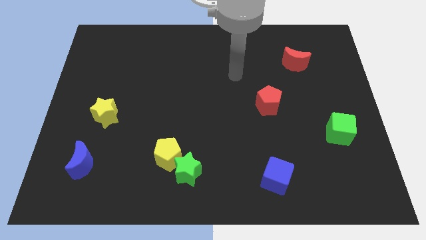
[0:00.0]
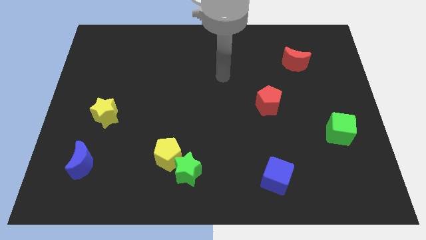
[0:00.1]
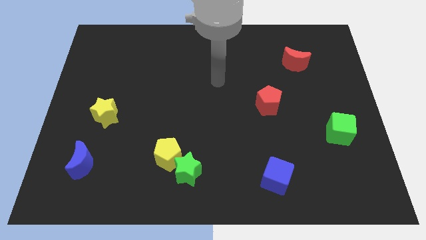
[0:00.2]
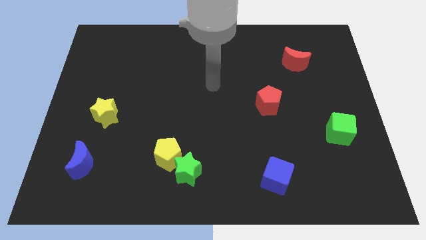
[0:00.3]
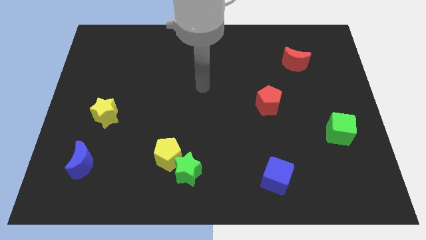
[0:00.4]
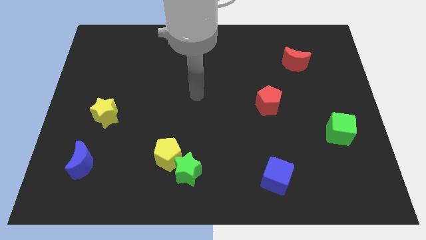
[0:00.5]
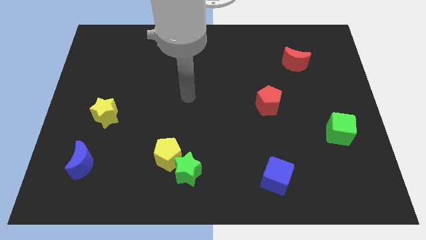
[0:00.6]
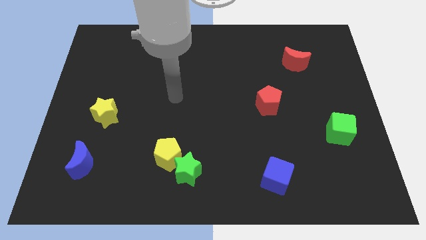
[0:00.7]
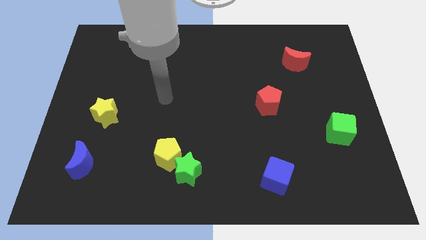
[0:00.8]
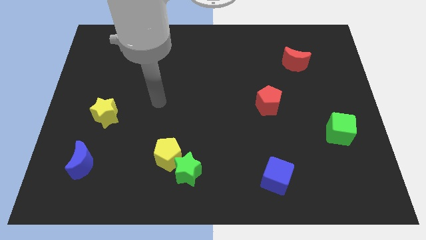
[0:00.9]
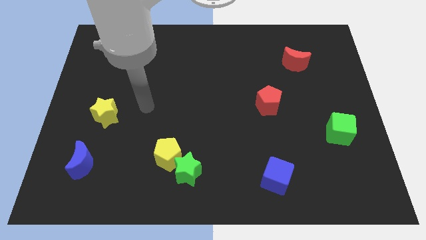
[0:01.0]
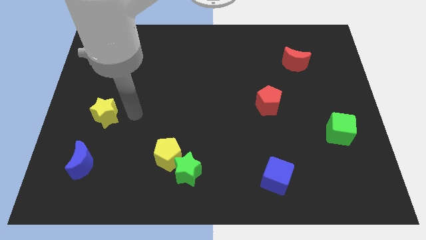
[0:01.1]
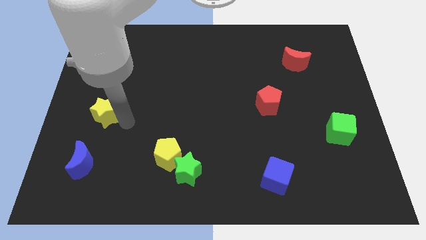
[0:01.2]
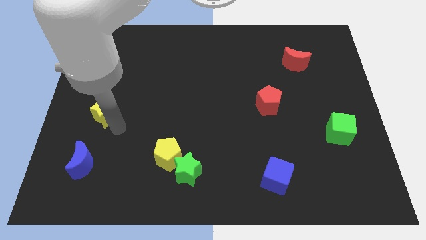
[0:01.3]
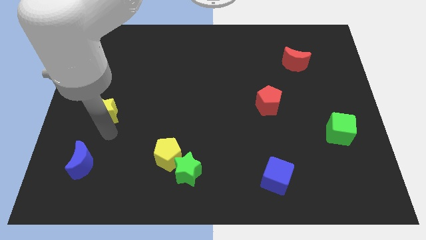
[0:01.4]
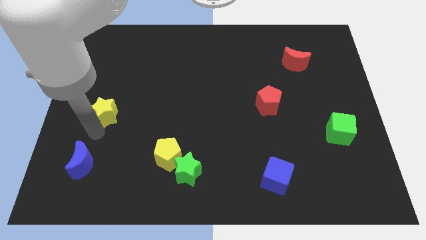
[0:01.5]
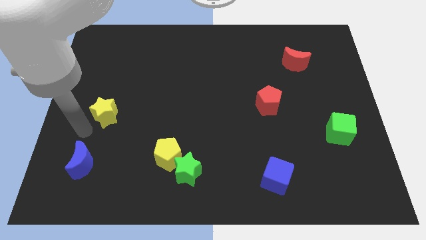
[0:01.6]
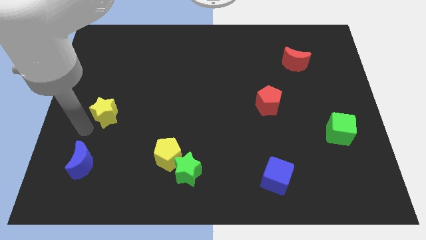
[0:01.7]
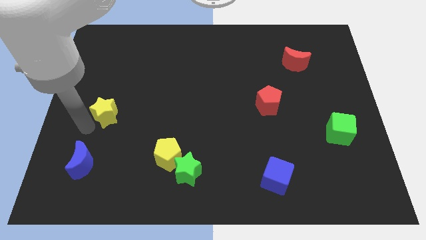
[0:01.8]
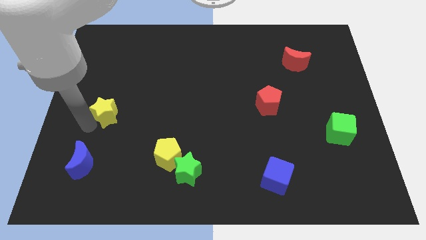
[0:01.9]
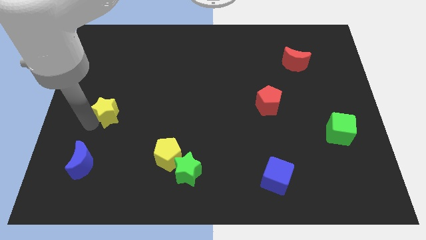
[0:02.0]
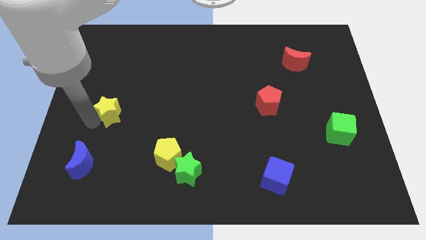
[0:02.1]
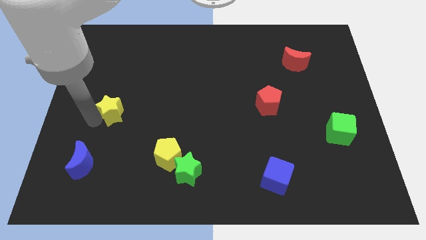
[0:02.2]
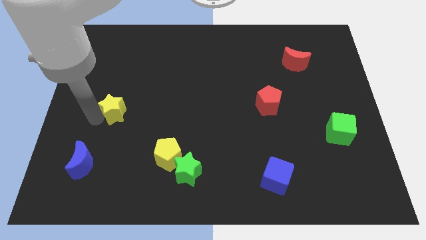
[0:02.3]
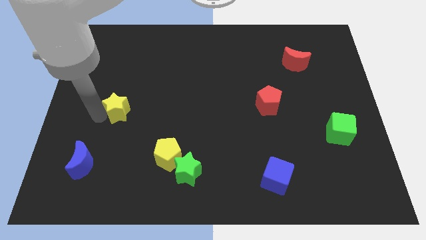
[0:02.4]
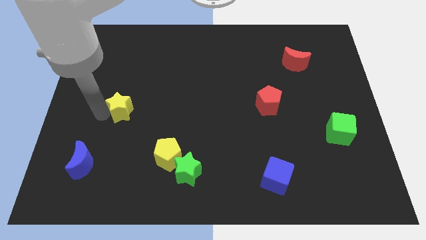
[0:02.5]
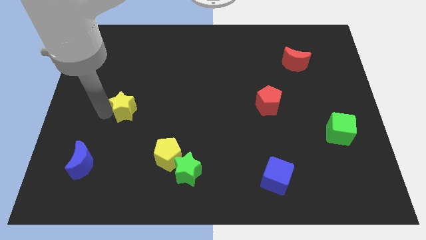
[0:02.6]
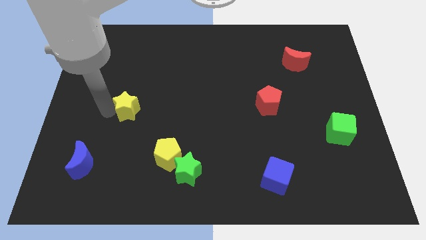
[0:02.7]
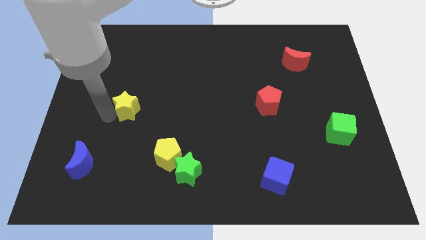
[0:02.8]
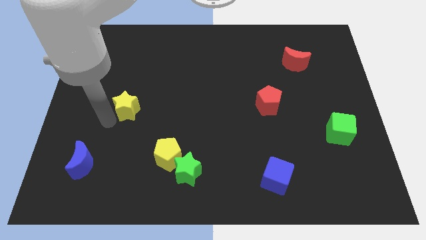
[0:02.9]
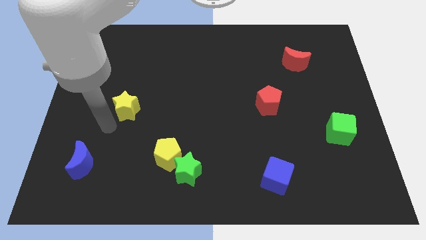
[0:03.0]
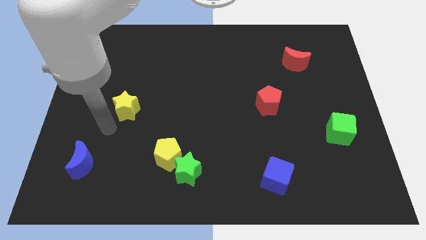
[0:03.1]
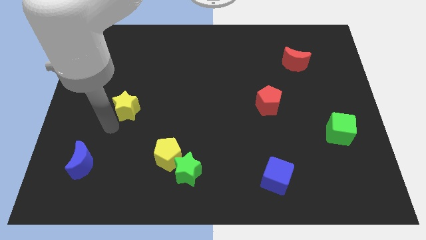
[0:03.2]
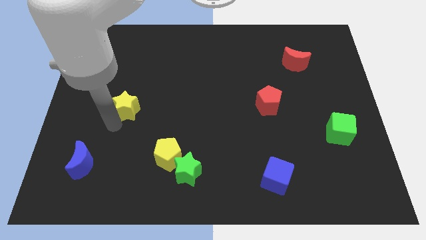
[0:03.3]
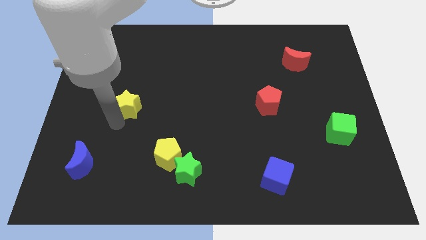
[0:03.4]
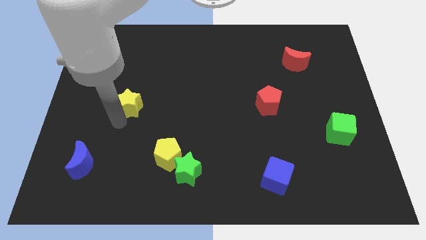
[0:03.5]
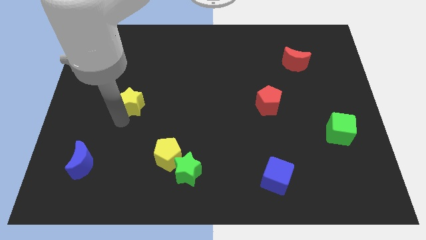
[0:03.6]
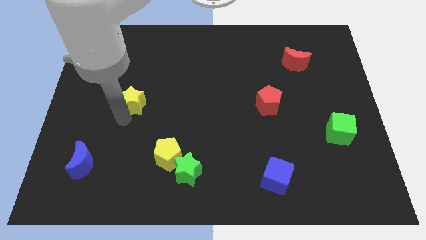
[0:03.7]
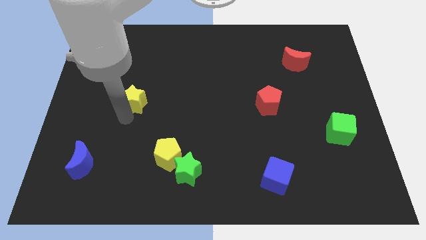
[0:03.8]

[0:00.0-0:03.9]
push the yellow star a little bit upwards and to the right

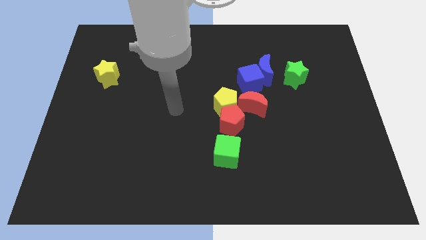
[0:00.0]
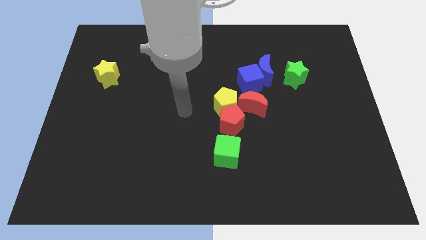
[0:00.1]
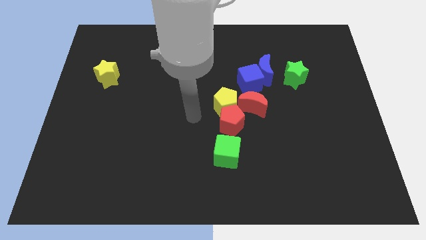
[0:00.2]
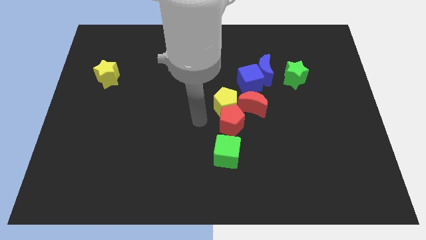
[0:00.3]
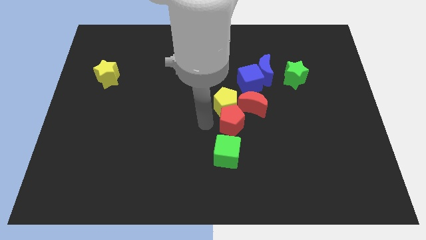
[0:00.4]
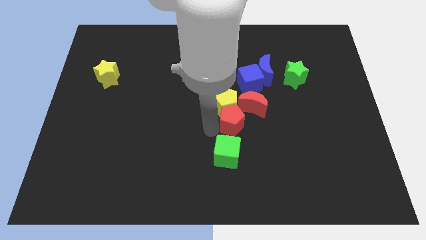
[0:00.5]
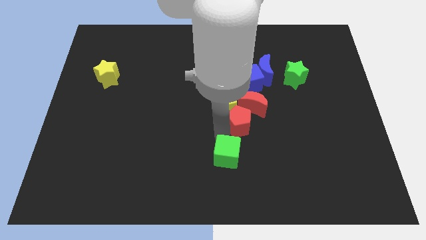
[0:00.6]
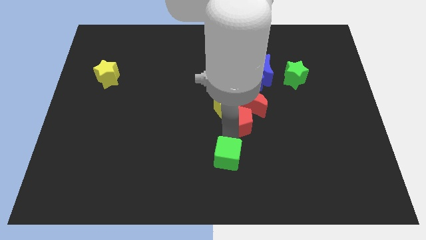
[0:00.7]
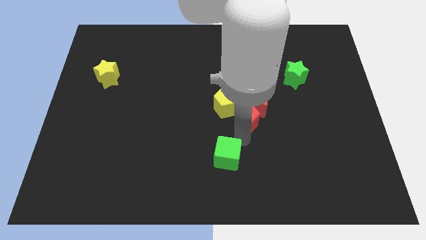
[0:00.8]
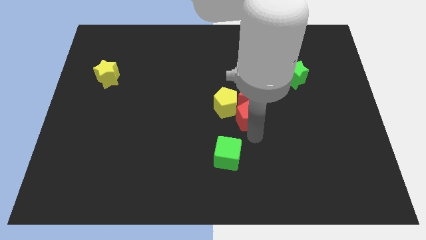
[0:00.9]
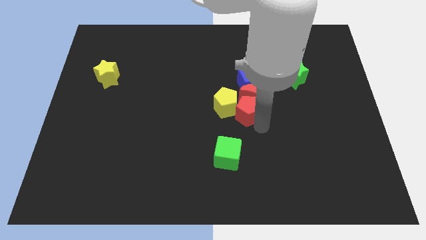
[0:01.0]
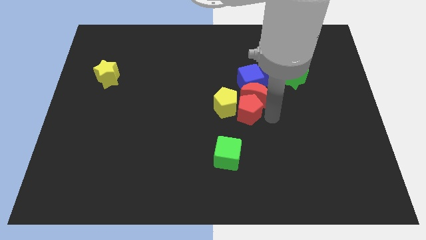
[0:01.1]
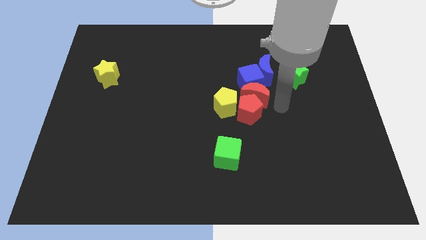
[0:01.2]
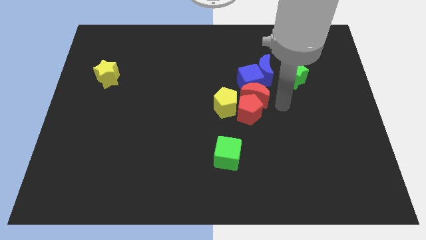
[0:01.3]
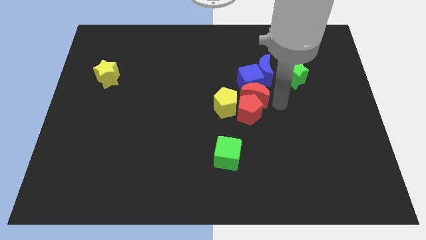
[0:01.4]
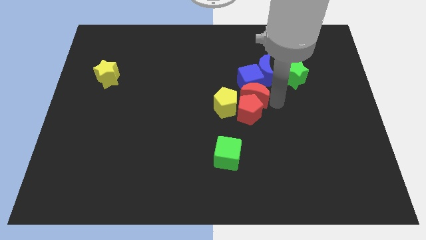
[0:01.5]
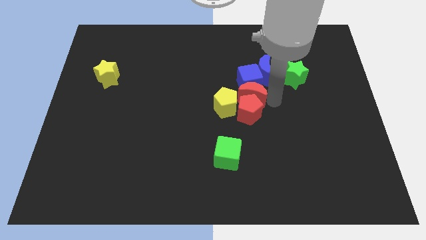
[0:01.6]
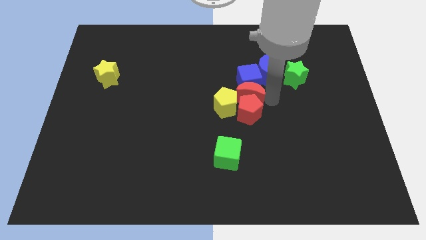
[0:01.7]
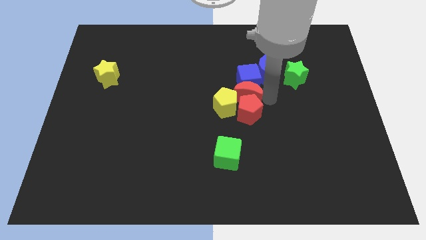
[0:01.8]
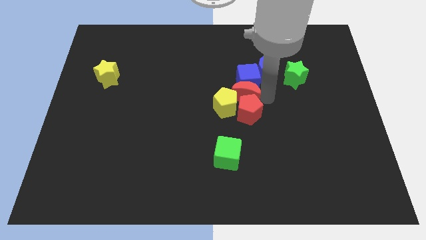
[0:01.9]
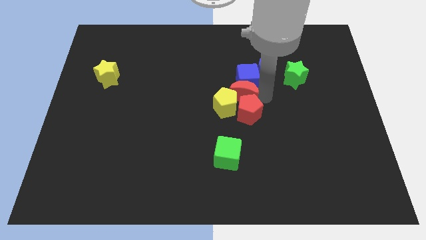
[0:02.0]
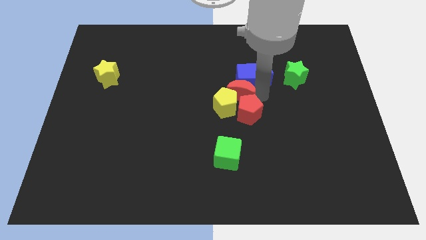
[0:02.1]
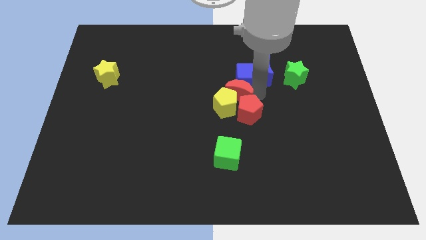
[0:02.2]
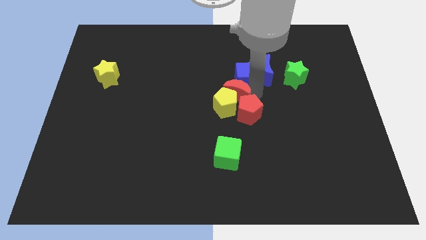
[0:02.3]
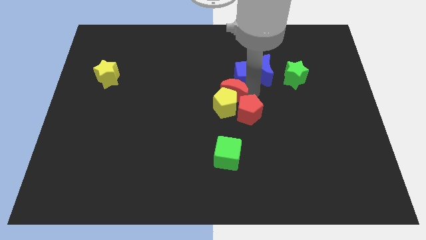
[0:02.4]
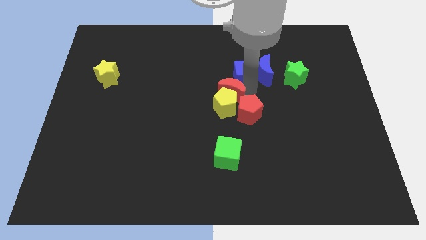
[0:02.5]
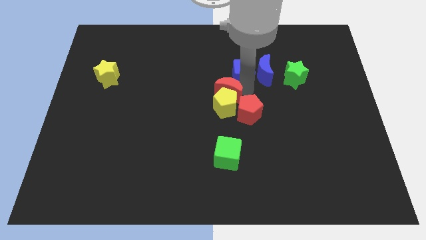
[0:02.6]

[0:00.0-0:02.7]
slide the red moon upwards and to the left diagonally a little bit

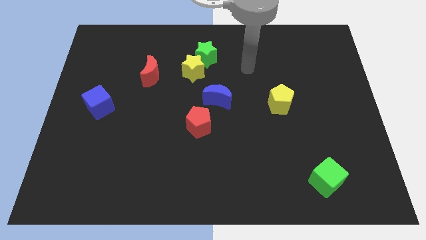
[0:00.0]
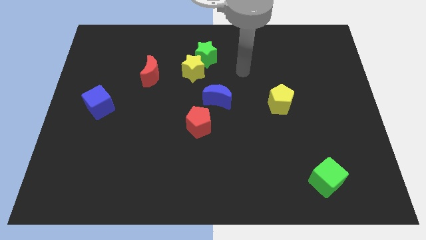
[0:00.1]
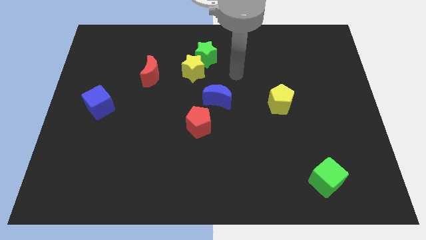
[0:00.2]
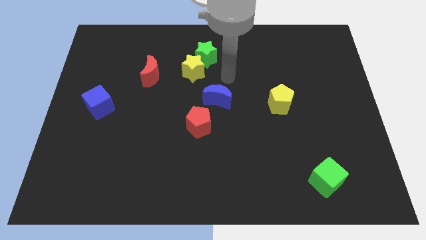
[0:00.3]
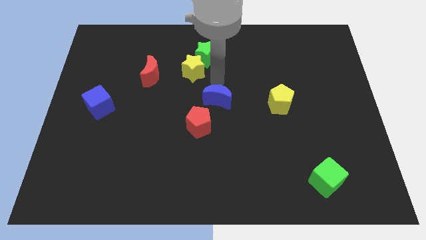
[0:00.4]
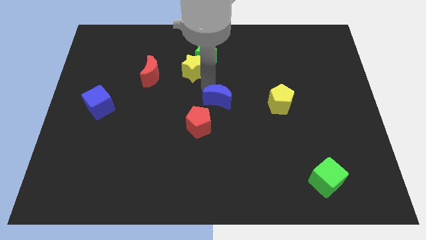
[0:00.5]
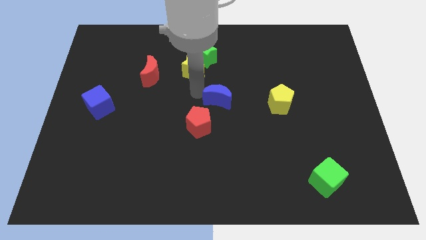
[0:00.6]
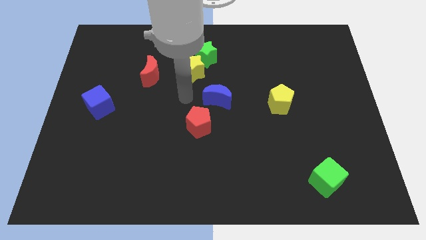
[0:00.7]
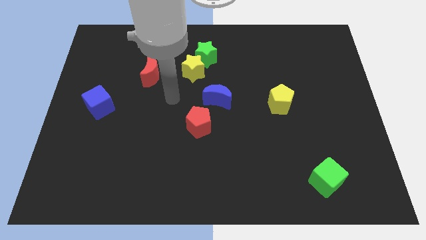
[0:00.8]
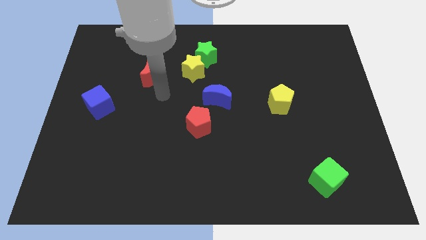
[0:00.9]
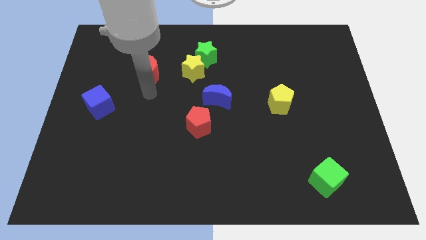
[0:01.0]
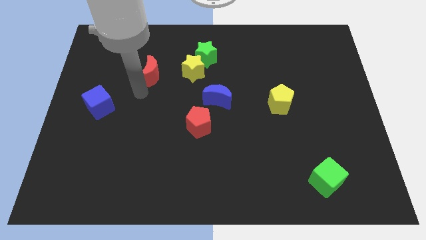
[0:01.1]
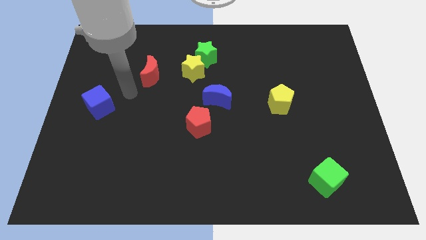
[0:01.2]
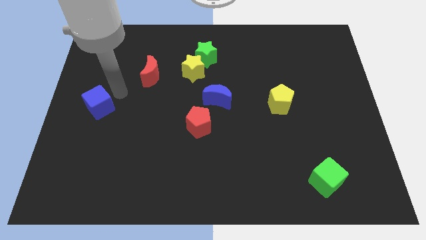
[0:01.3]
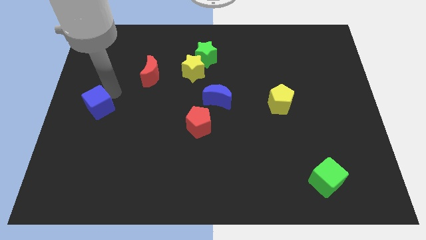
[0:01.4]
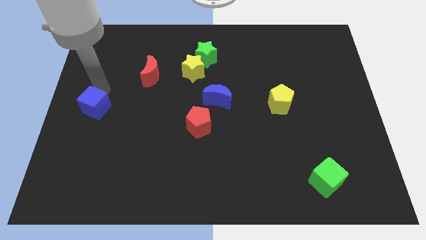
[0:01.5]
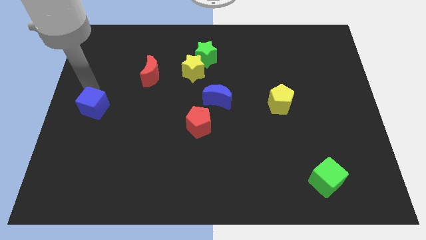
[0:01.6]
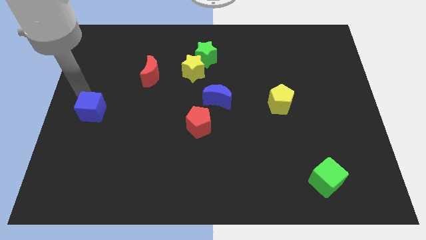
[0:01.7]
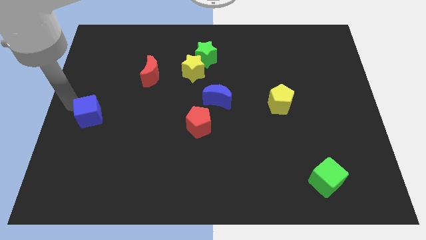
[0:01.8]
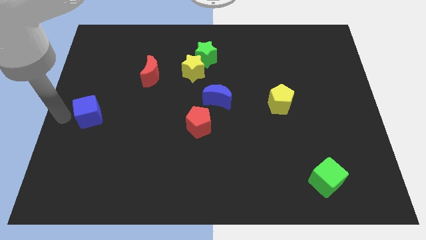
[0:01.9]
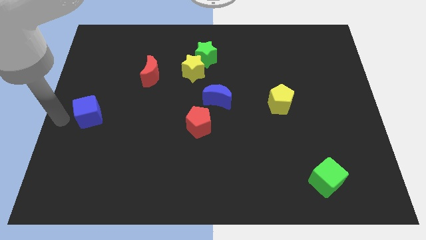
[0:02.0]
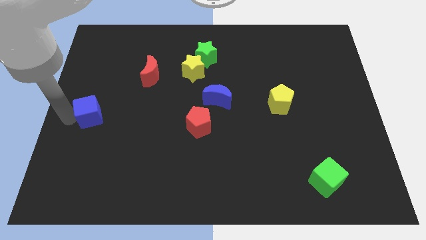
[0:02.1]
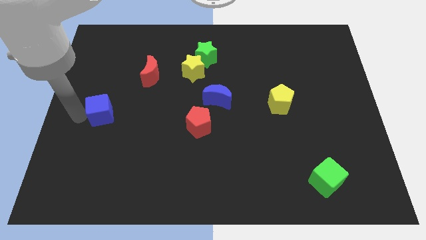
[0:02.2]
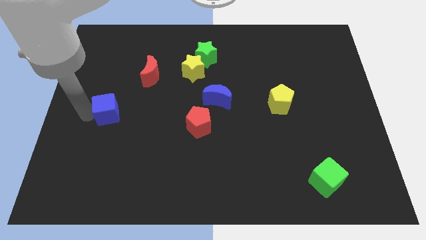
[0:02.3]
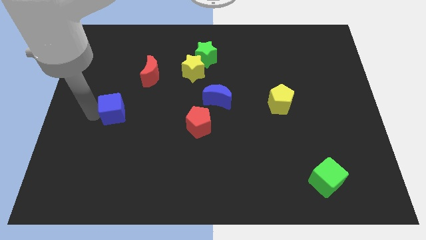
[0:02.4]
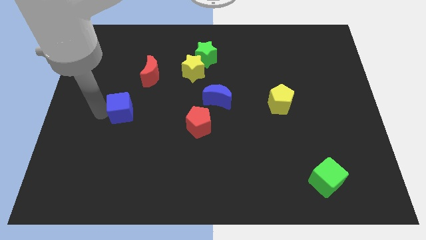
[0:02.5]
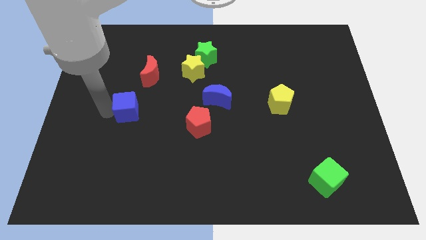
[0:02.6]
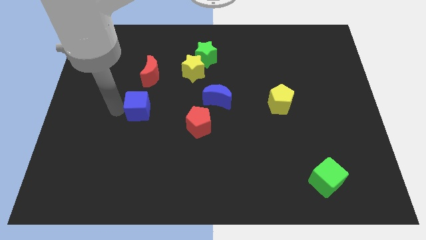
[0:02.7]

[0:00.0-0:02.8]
slide the blue cube a little bit to the right
